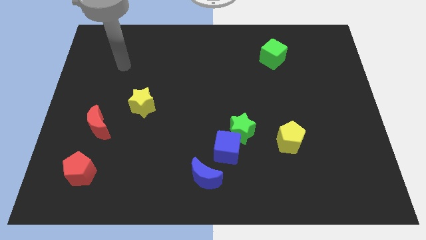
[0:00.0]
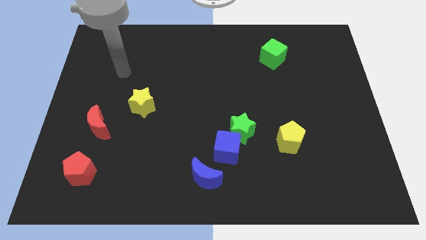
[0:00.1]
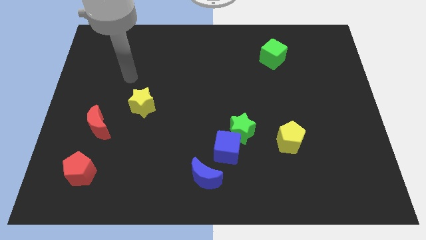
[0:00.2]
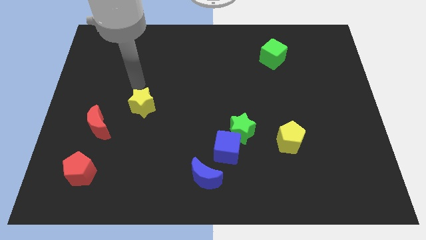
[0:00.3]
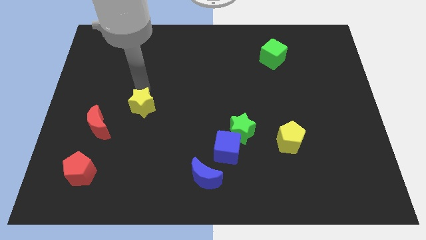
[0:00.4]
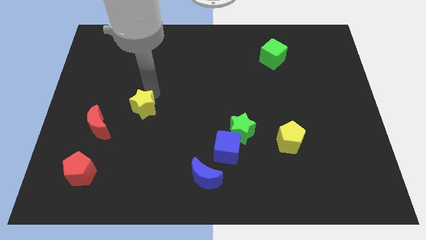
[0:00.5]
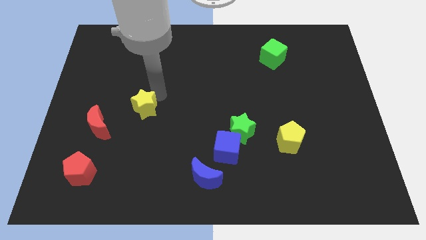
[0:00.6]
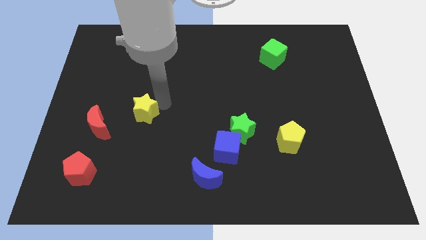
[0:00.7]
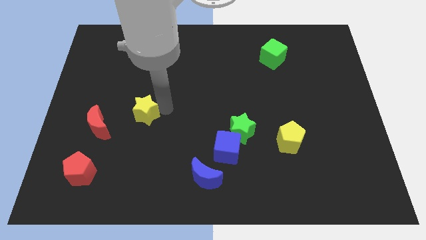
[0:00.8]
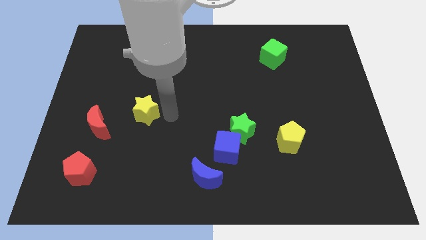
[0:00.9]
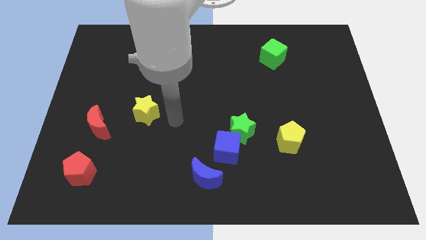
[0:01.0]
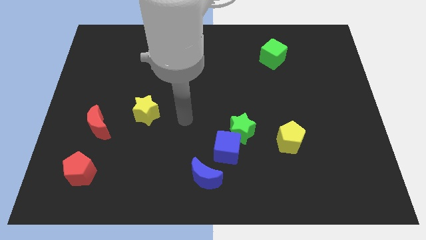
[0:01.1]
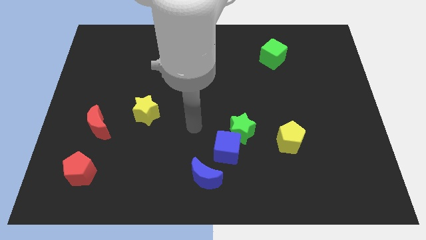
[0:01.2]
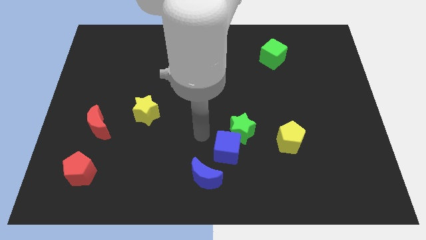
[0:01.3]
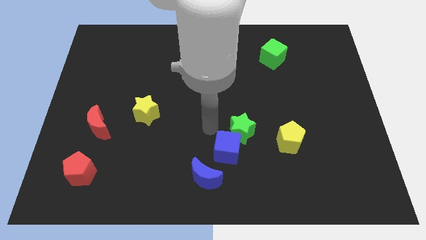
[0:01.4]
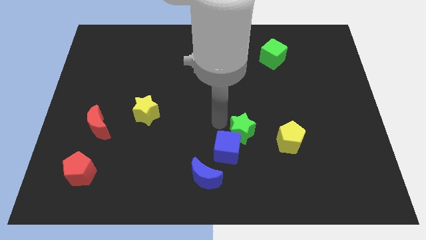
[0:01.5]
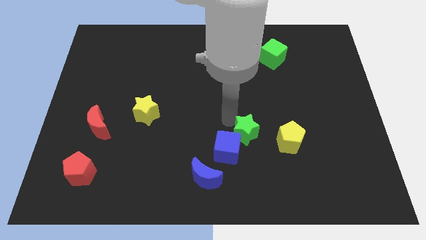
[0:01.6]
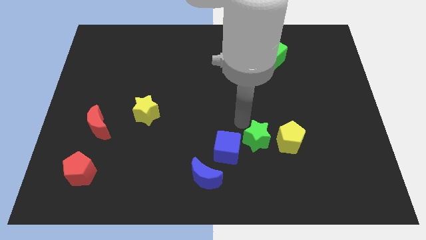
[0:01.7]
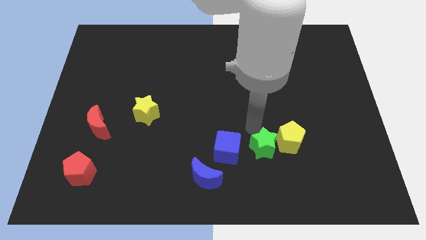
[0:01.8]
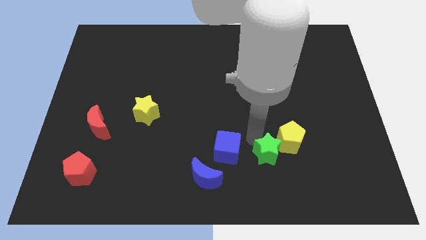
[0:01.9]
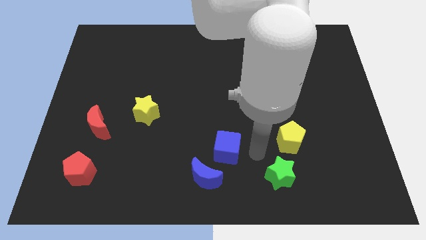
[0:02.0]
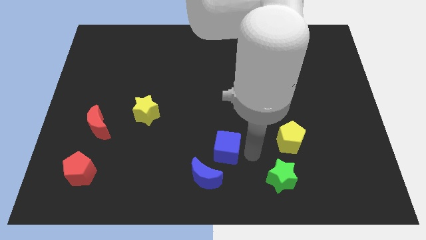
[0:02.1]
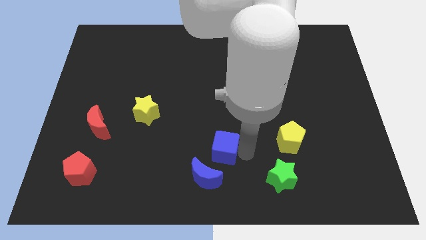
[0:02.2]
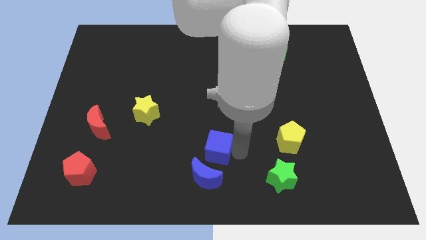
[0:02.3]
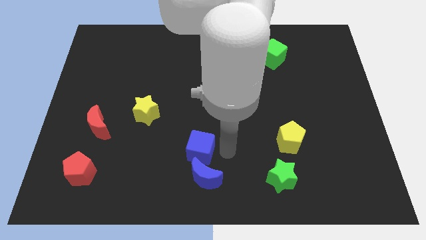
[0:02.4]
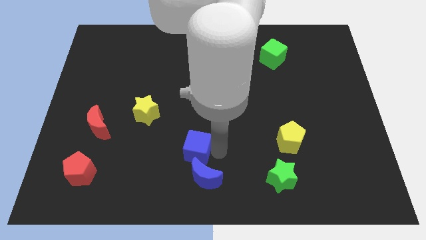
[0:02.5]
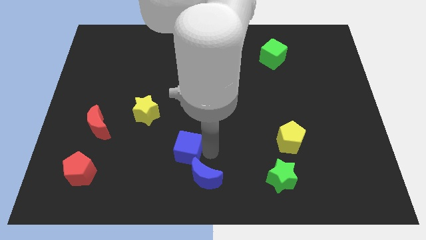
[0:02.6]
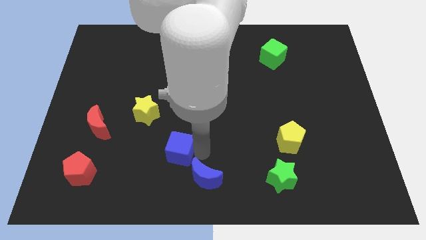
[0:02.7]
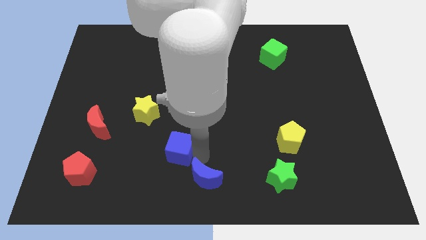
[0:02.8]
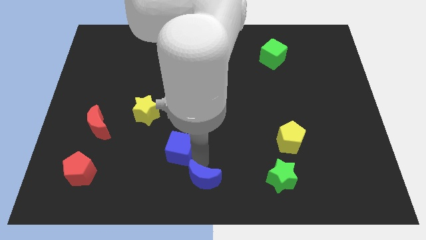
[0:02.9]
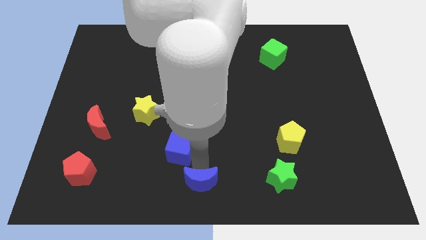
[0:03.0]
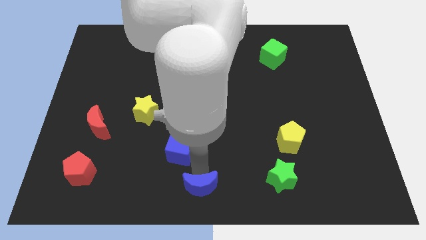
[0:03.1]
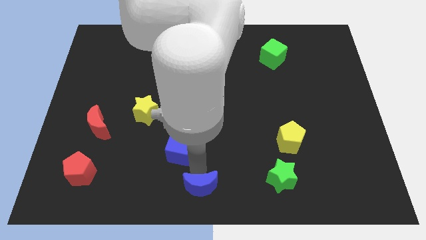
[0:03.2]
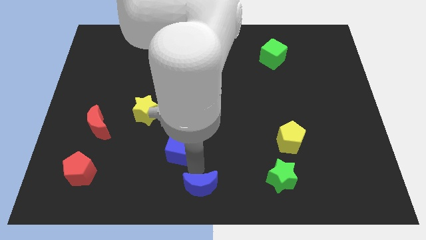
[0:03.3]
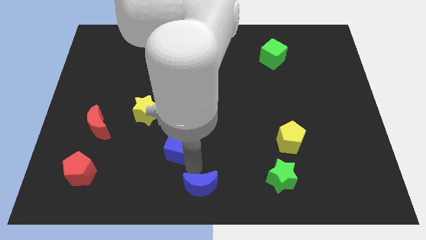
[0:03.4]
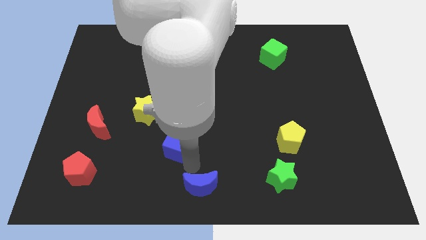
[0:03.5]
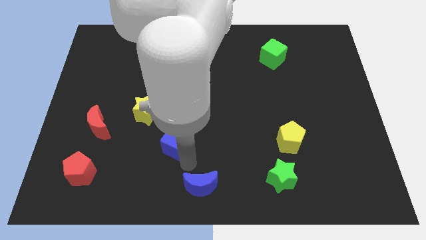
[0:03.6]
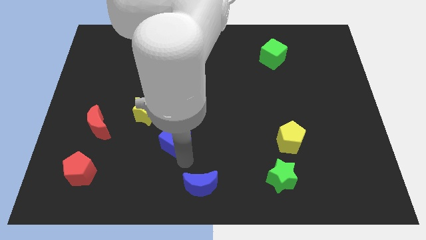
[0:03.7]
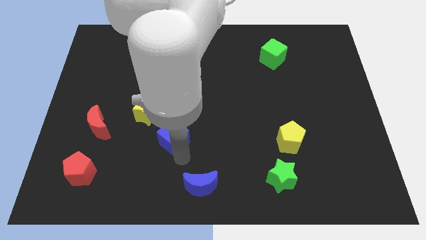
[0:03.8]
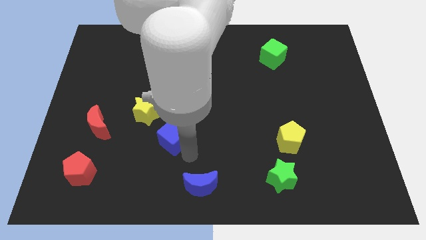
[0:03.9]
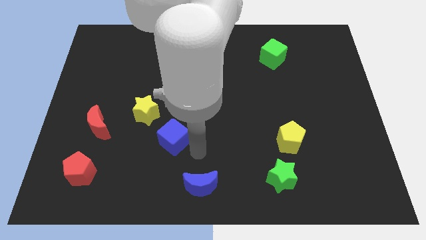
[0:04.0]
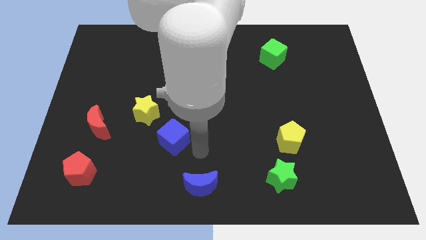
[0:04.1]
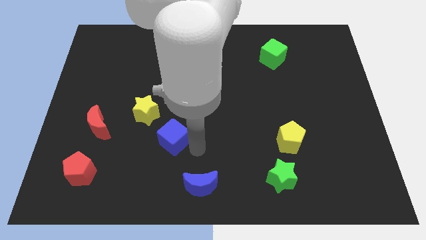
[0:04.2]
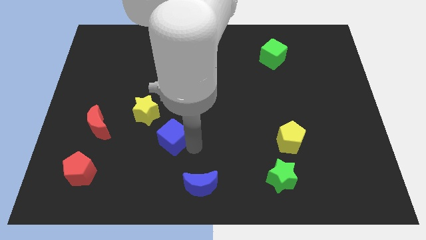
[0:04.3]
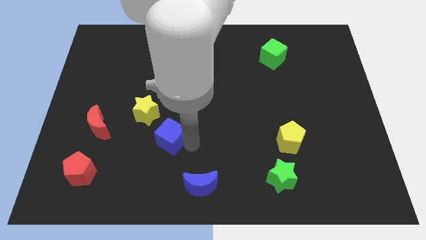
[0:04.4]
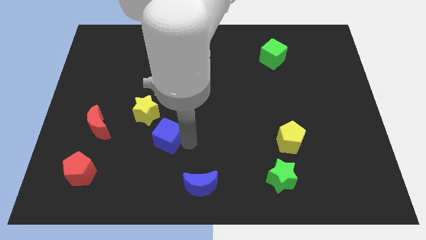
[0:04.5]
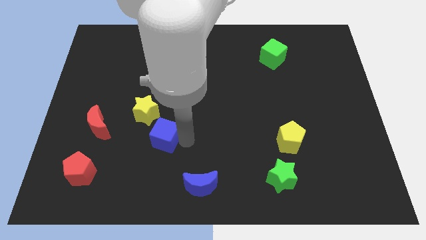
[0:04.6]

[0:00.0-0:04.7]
push the blue cube to the right of the red moon

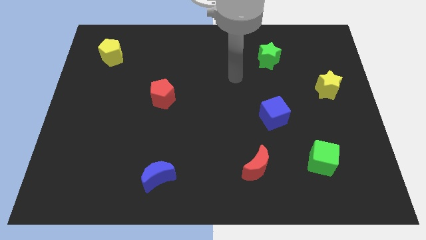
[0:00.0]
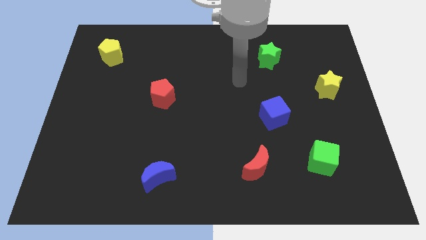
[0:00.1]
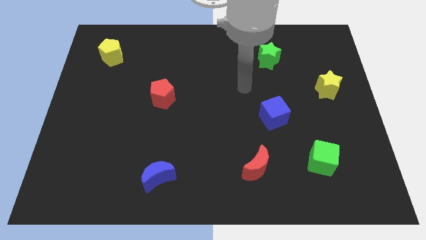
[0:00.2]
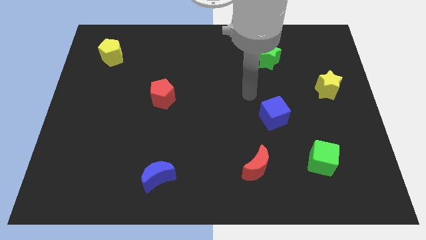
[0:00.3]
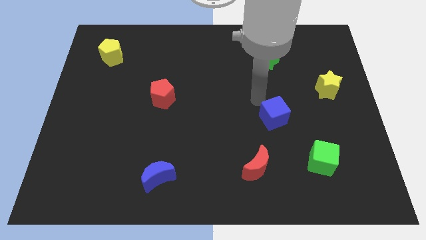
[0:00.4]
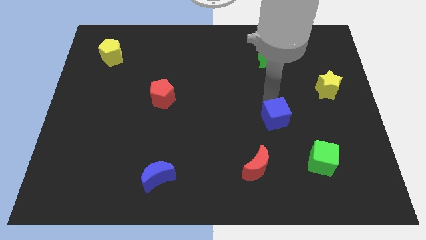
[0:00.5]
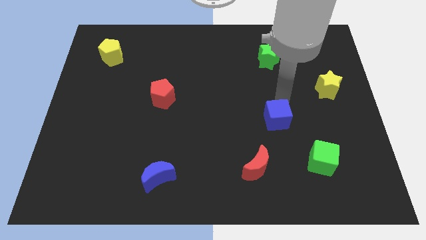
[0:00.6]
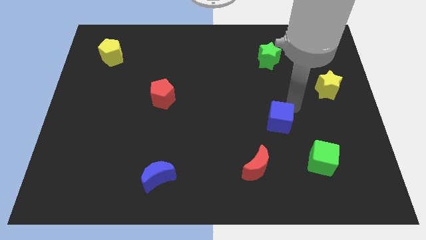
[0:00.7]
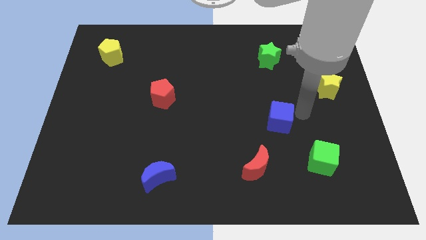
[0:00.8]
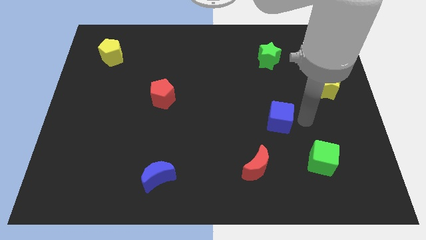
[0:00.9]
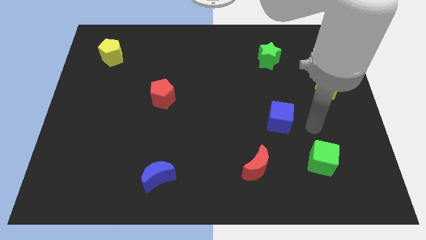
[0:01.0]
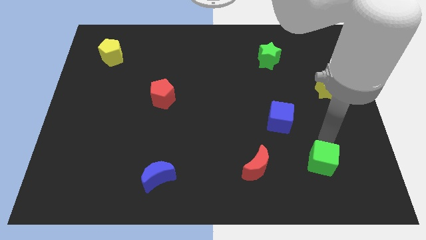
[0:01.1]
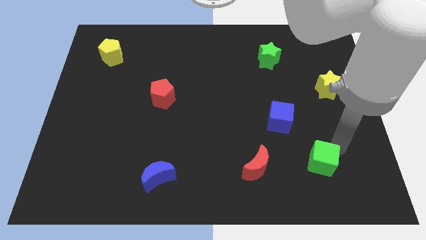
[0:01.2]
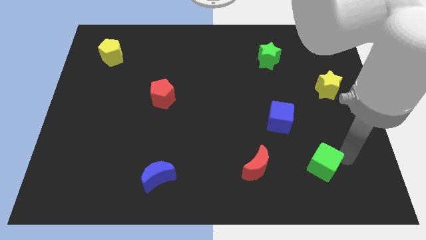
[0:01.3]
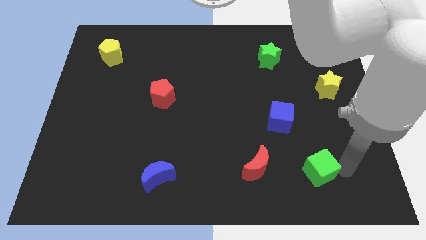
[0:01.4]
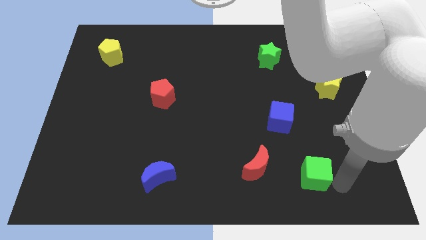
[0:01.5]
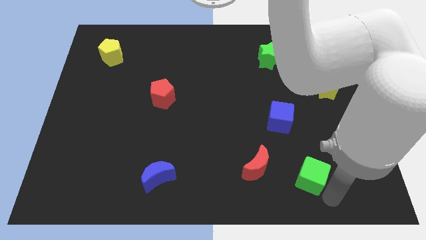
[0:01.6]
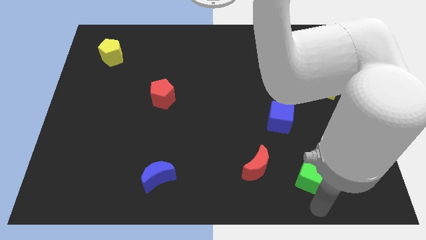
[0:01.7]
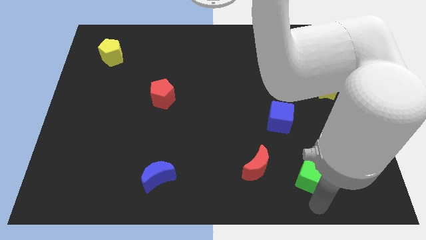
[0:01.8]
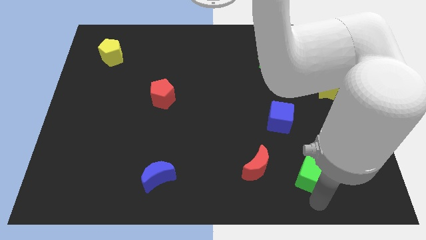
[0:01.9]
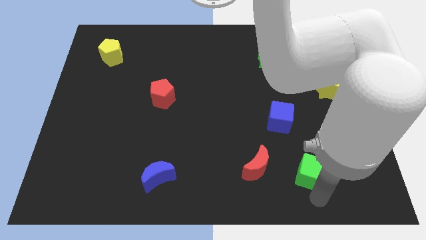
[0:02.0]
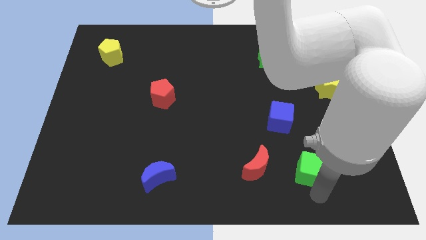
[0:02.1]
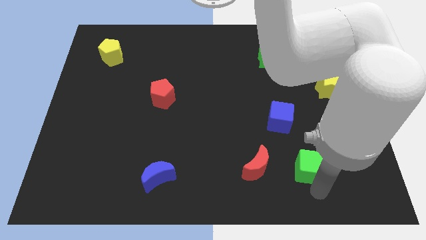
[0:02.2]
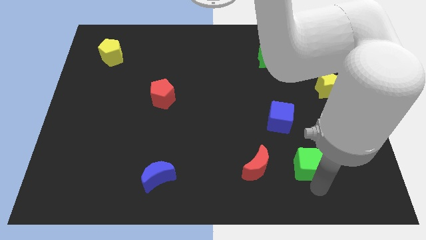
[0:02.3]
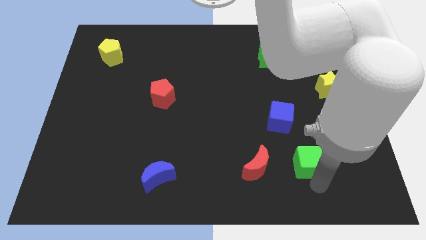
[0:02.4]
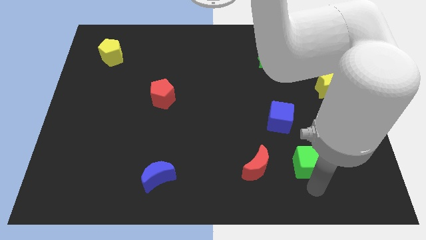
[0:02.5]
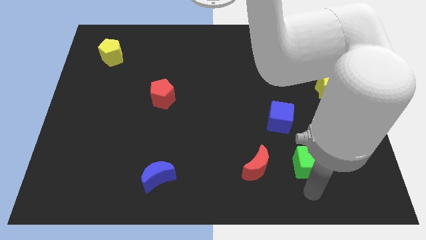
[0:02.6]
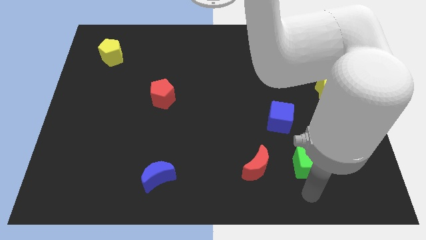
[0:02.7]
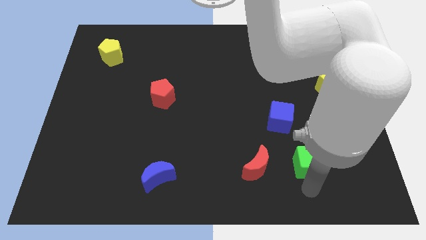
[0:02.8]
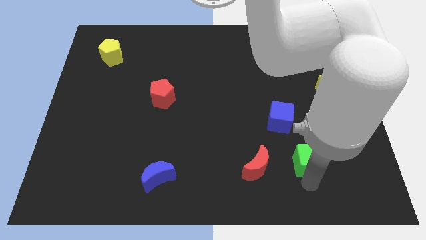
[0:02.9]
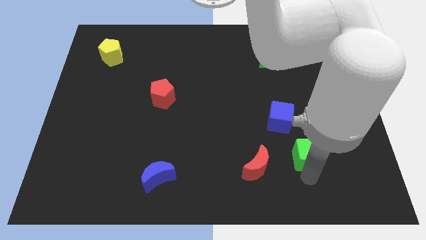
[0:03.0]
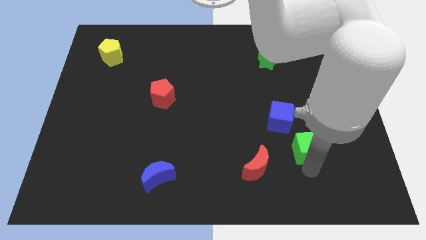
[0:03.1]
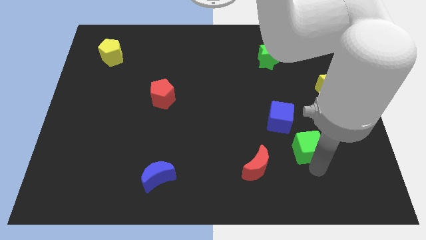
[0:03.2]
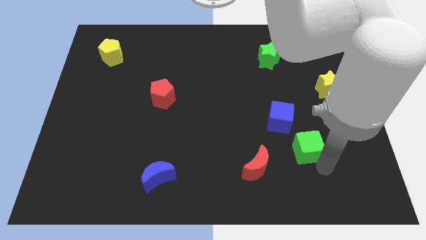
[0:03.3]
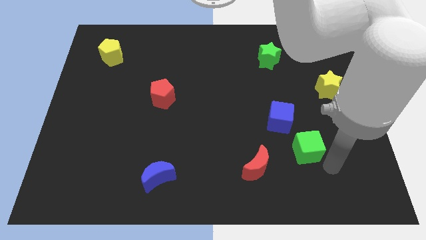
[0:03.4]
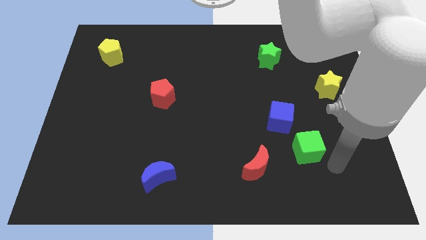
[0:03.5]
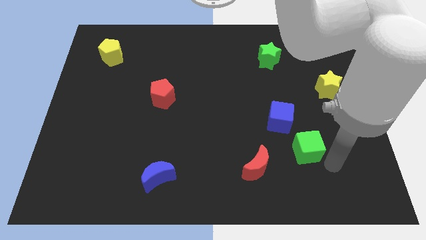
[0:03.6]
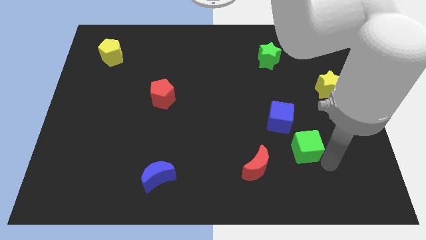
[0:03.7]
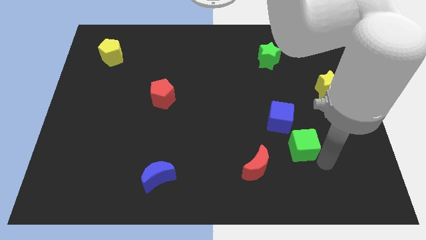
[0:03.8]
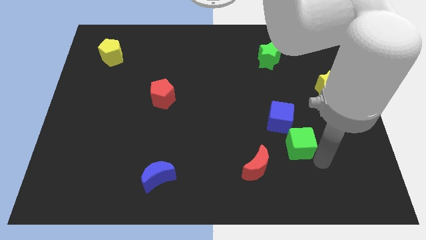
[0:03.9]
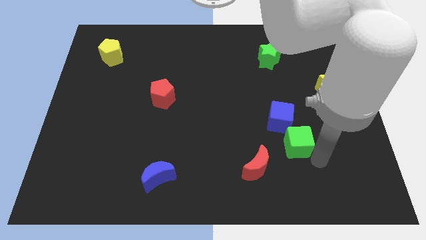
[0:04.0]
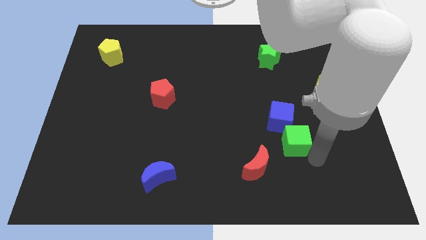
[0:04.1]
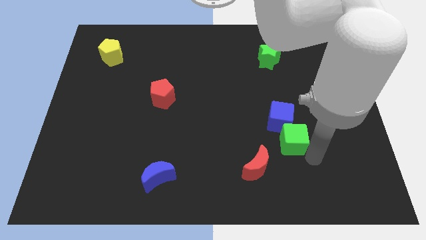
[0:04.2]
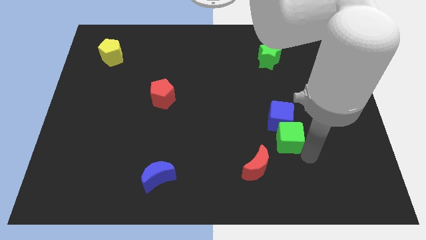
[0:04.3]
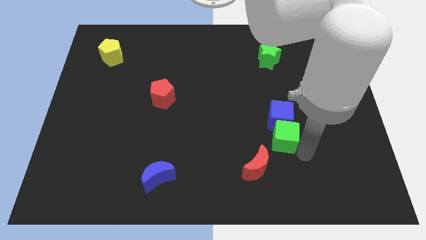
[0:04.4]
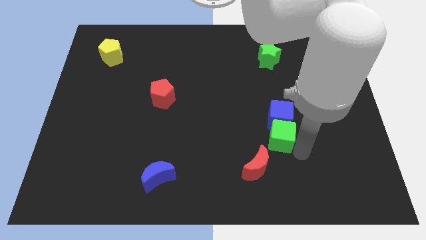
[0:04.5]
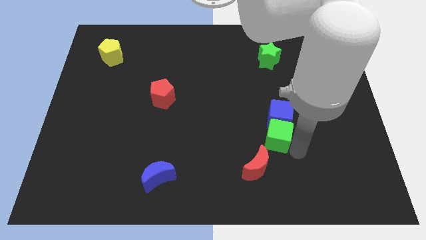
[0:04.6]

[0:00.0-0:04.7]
put the green cube to the top side of the red moon
